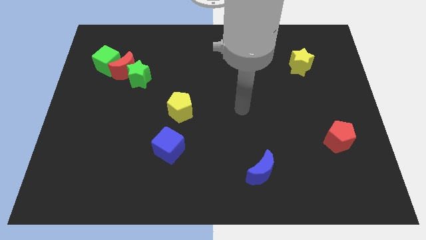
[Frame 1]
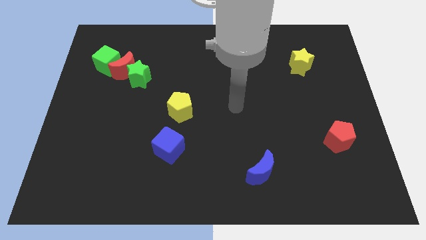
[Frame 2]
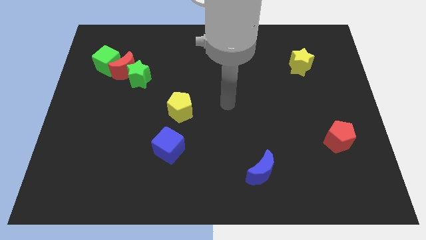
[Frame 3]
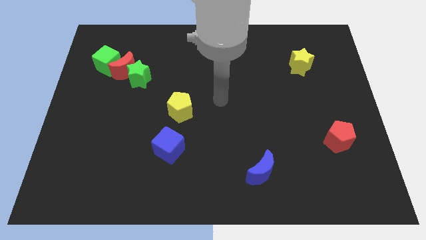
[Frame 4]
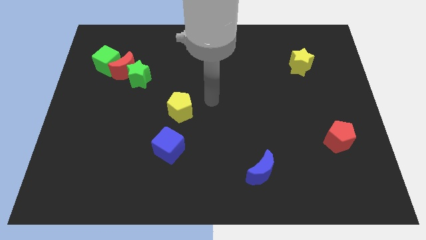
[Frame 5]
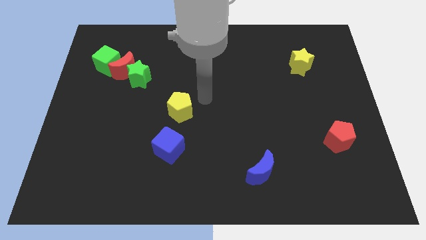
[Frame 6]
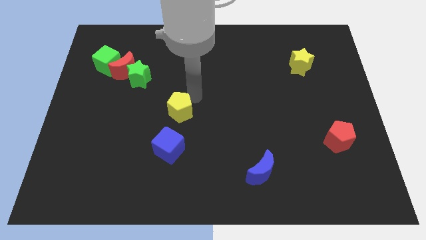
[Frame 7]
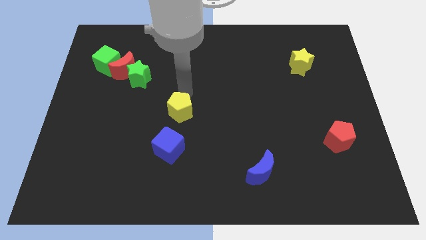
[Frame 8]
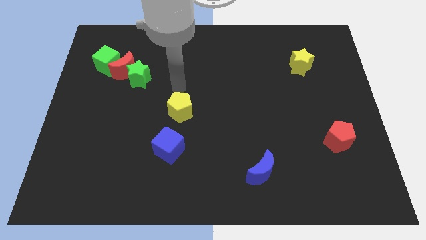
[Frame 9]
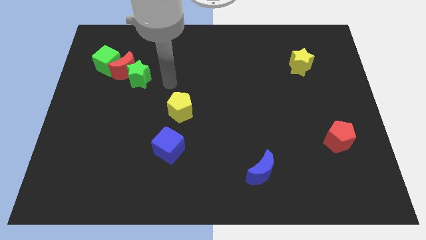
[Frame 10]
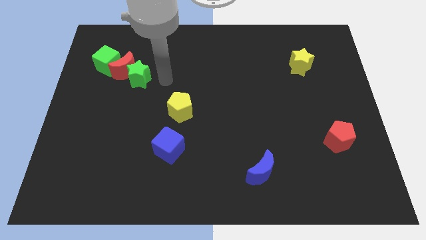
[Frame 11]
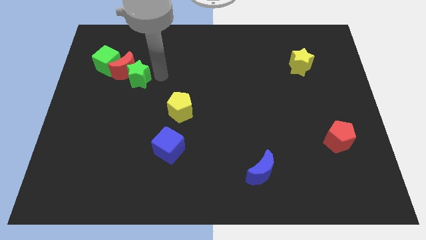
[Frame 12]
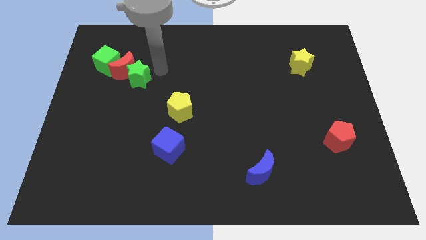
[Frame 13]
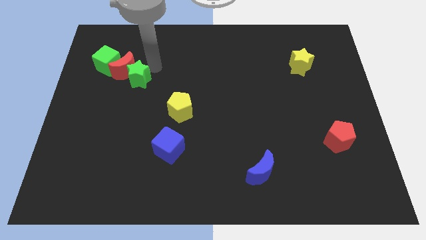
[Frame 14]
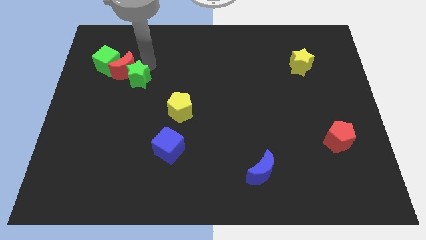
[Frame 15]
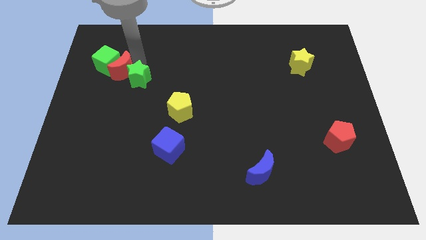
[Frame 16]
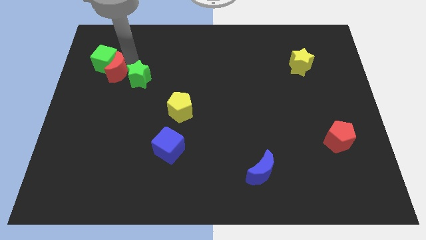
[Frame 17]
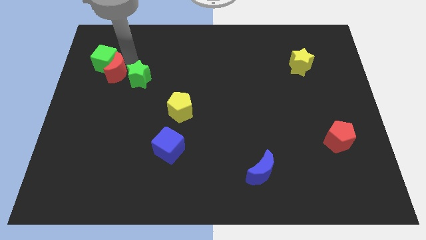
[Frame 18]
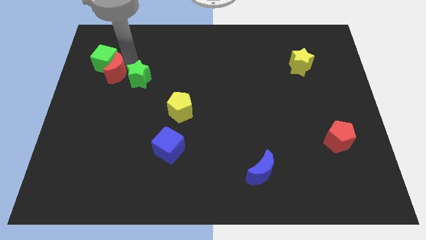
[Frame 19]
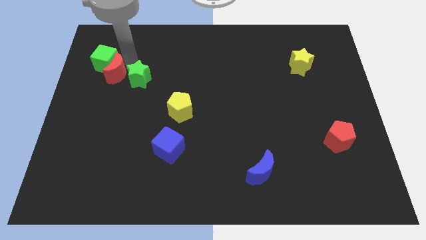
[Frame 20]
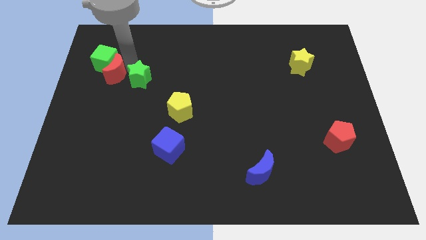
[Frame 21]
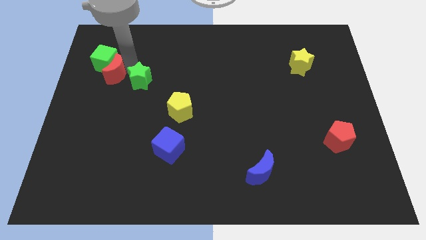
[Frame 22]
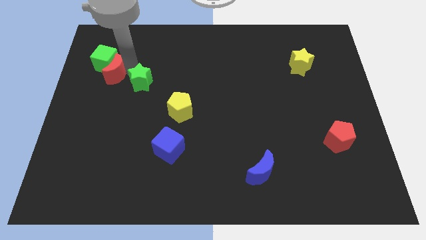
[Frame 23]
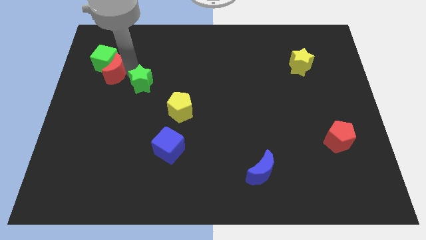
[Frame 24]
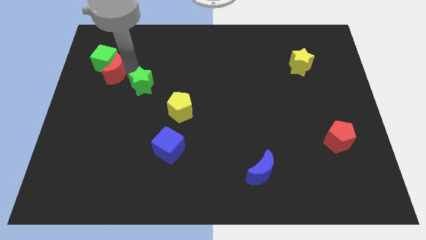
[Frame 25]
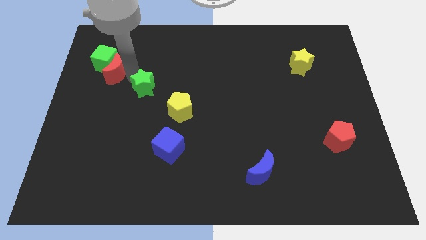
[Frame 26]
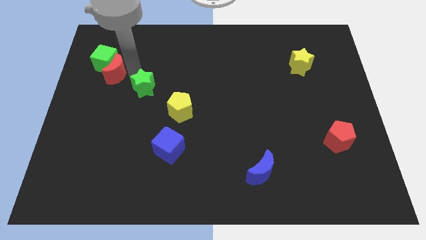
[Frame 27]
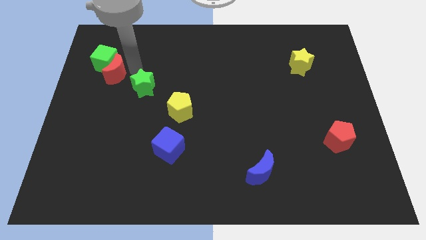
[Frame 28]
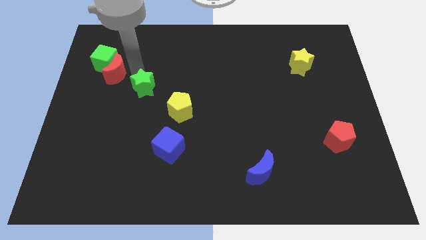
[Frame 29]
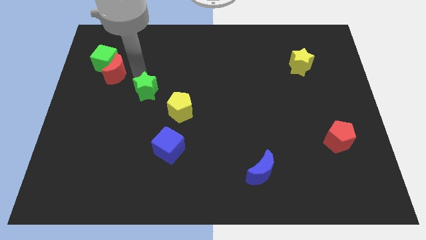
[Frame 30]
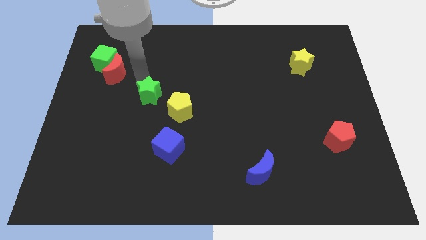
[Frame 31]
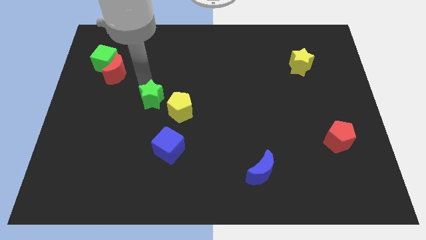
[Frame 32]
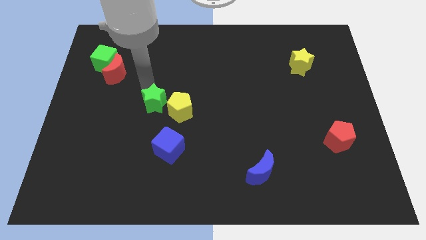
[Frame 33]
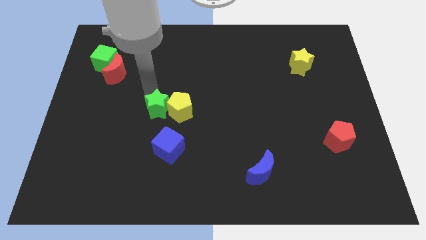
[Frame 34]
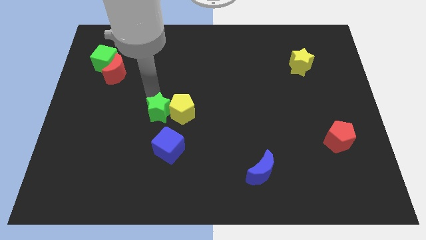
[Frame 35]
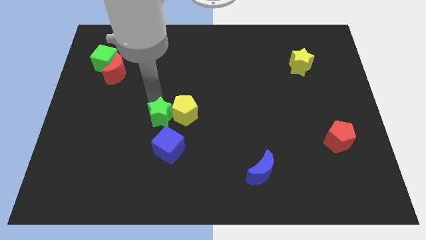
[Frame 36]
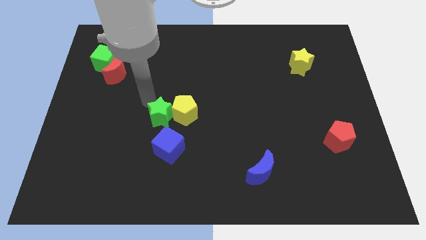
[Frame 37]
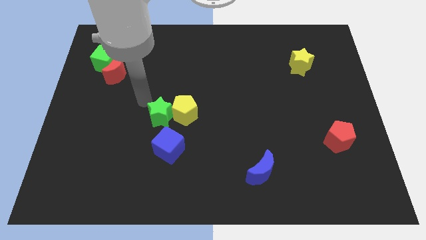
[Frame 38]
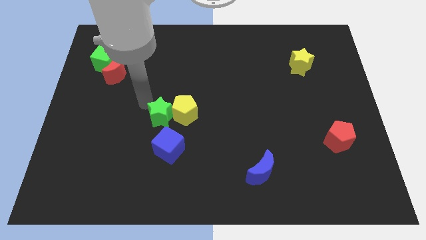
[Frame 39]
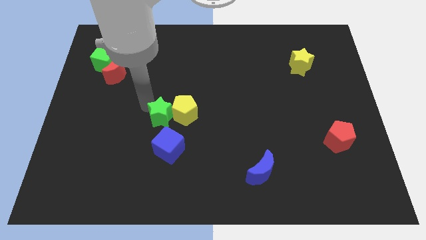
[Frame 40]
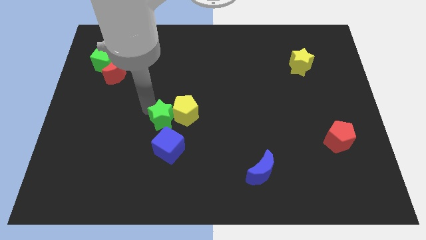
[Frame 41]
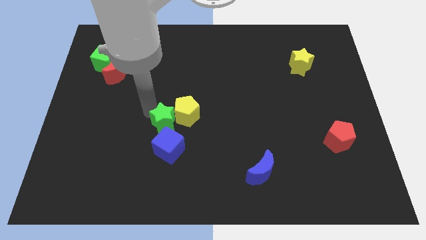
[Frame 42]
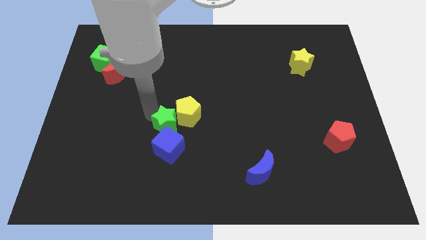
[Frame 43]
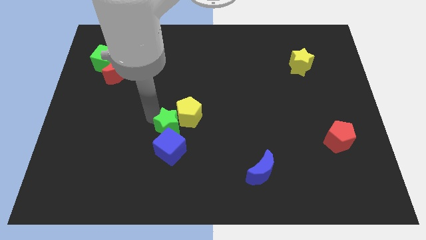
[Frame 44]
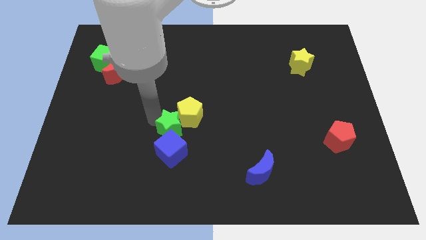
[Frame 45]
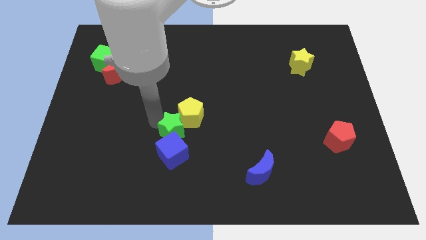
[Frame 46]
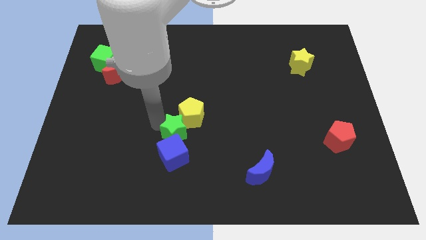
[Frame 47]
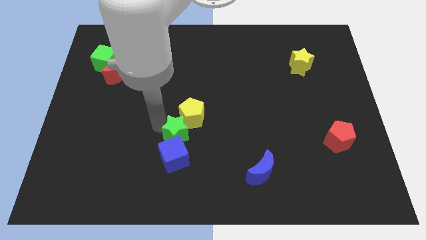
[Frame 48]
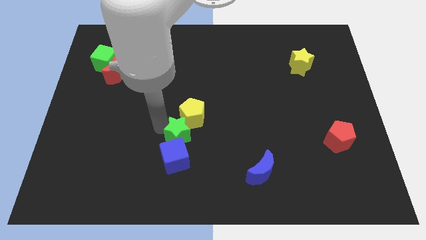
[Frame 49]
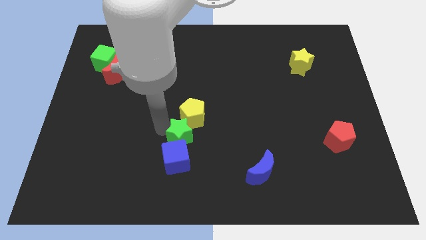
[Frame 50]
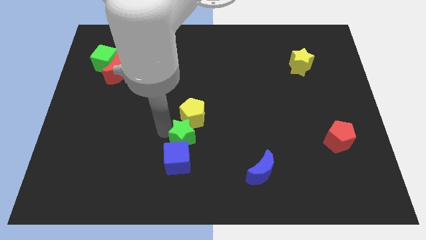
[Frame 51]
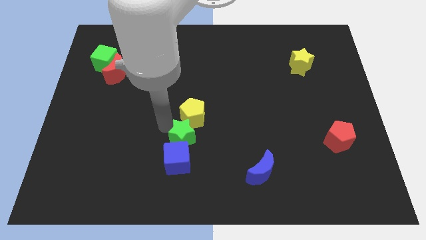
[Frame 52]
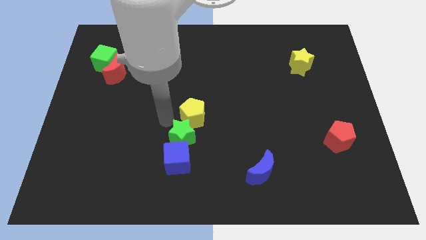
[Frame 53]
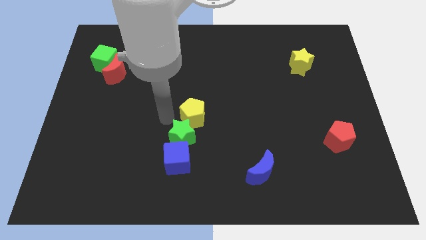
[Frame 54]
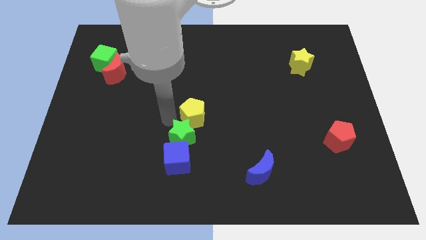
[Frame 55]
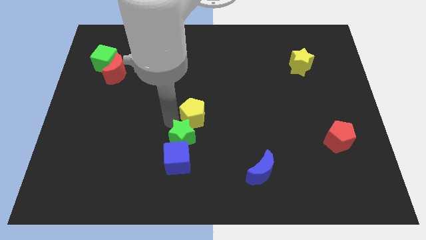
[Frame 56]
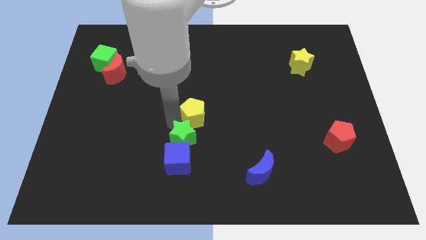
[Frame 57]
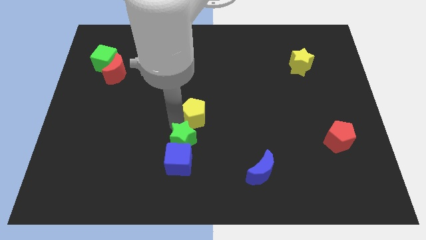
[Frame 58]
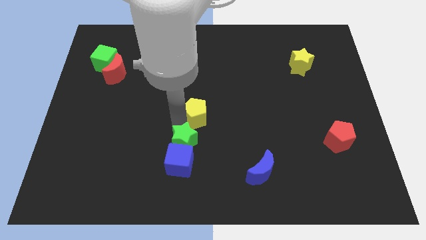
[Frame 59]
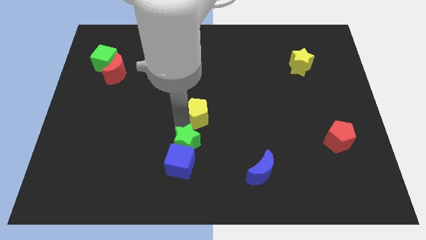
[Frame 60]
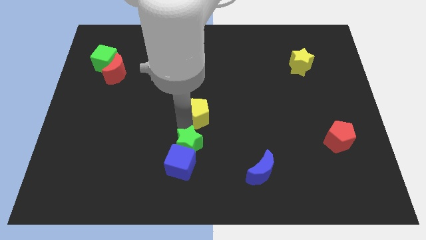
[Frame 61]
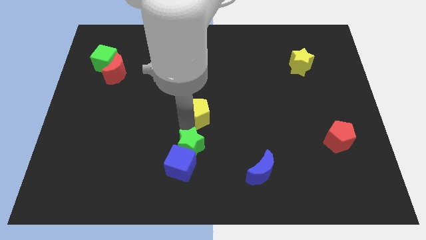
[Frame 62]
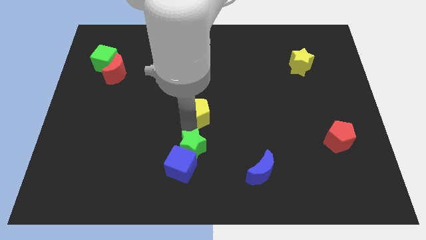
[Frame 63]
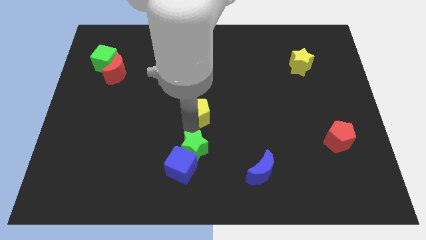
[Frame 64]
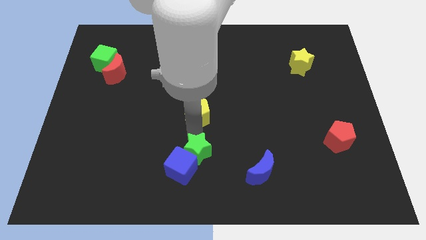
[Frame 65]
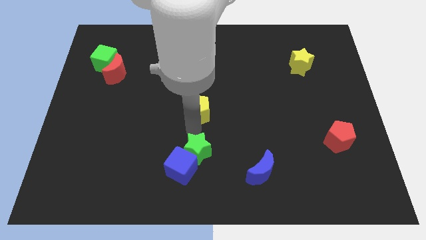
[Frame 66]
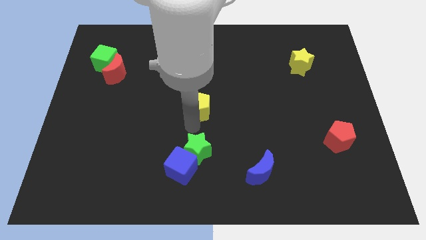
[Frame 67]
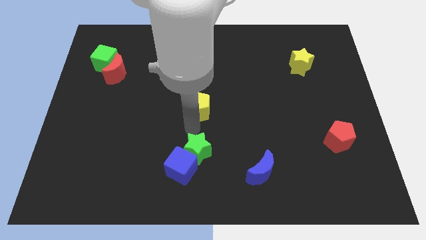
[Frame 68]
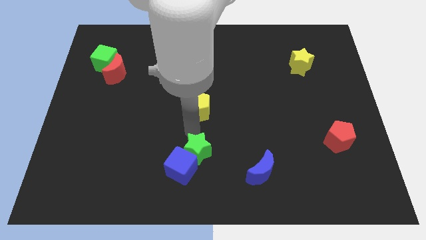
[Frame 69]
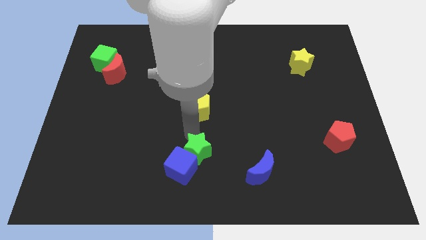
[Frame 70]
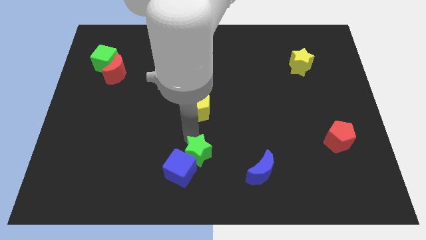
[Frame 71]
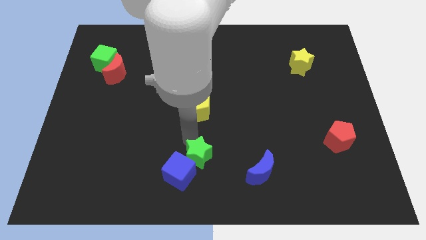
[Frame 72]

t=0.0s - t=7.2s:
move the green star to the bottom side
